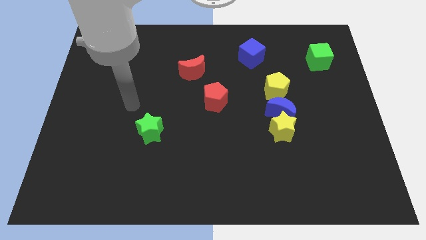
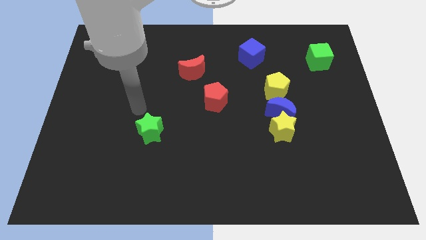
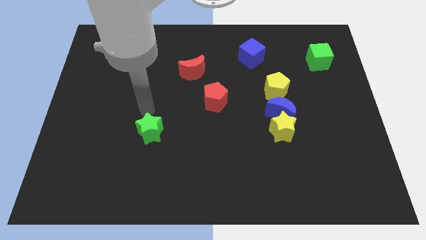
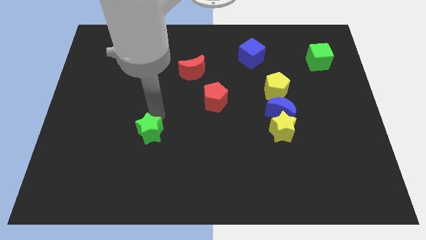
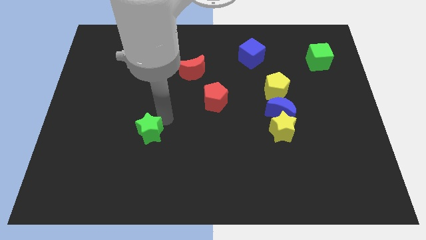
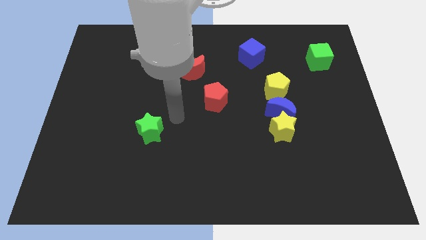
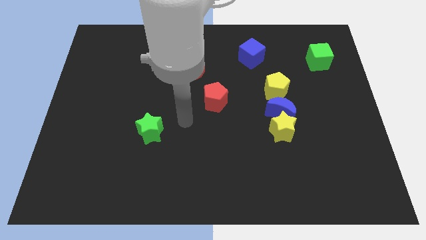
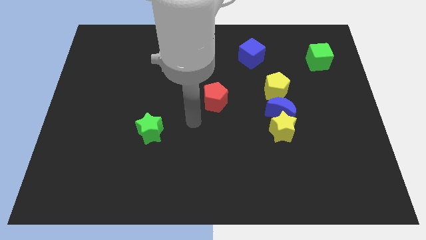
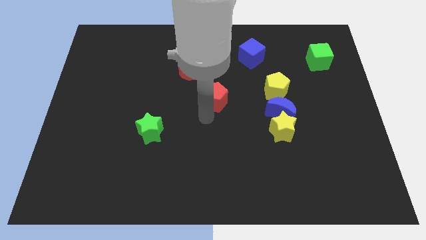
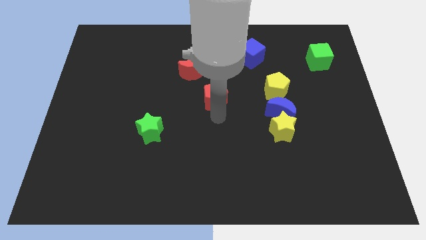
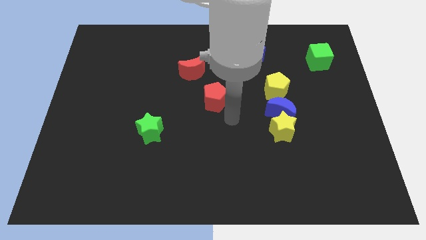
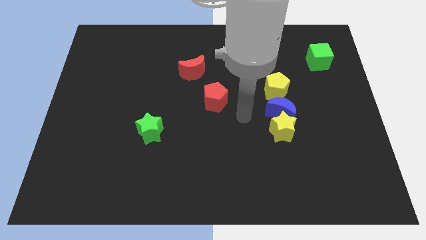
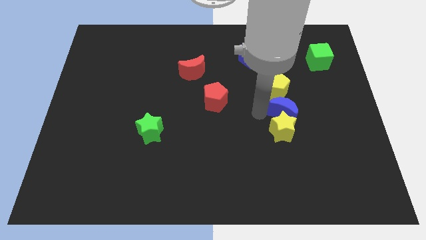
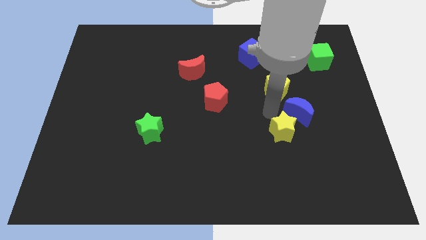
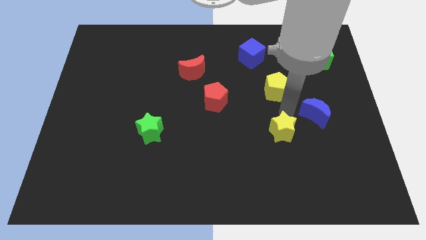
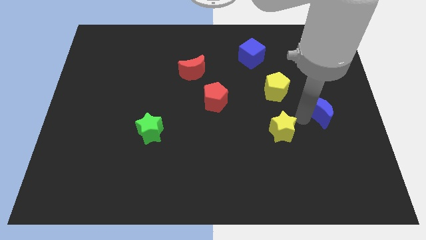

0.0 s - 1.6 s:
pull the yellow star apart from the blue moon

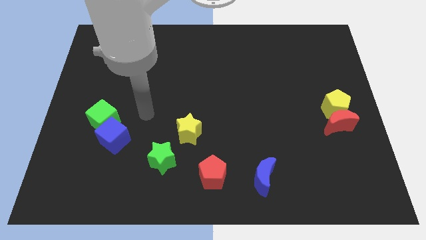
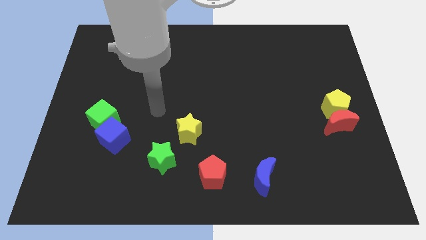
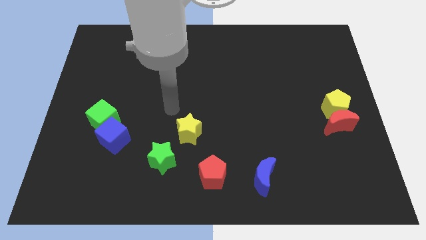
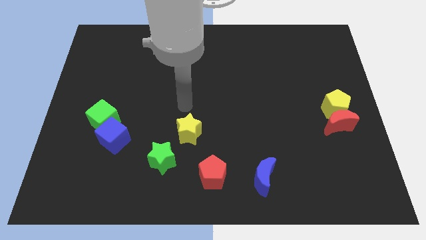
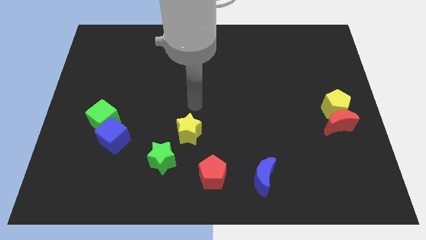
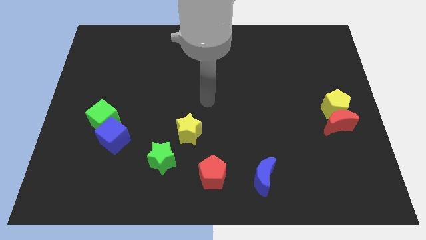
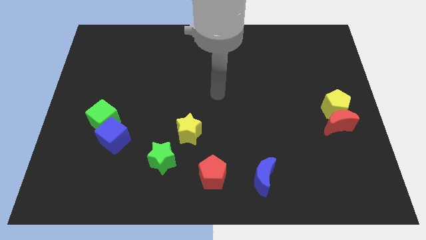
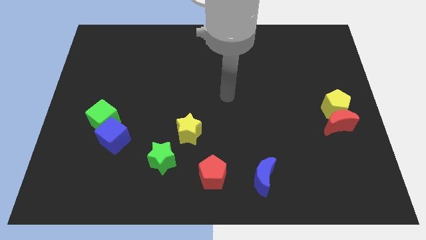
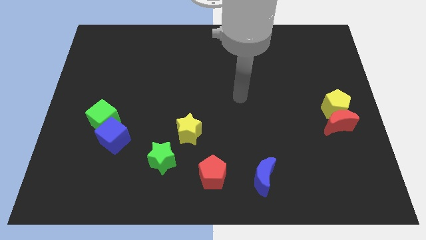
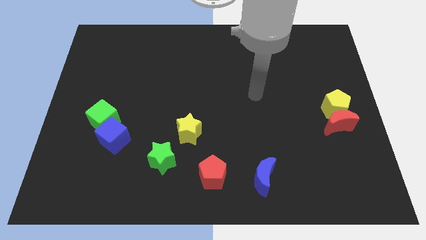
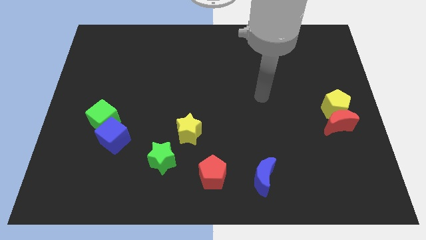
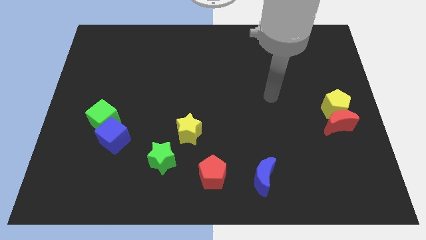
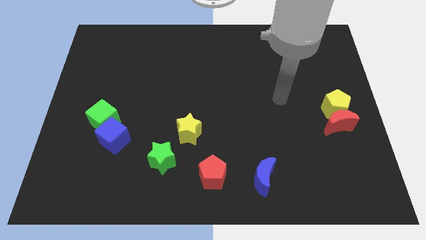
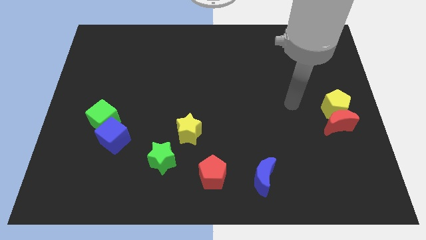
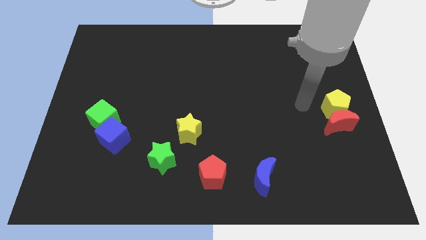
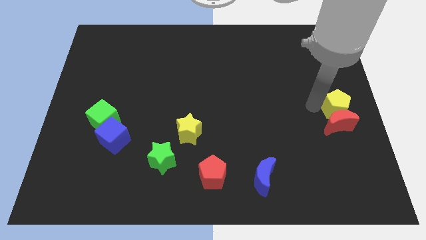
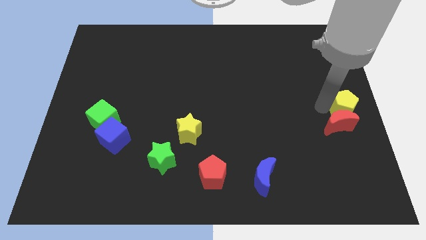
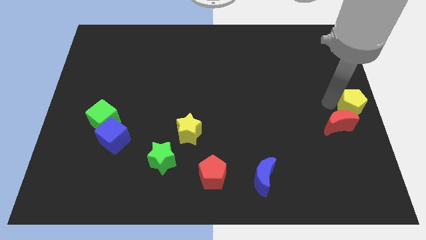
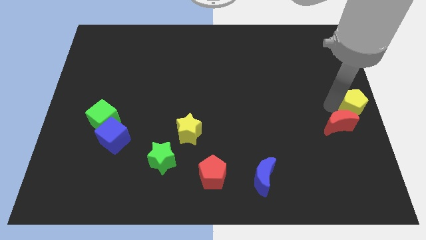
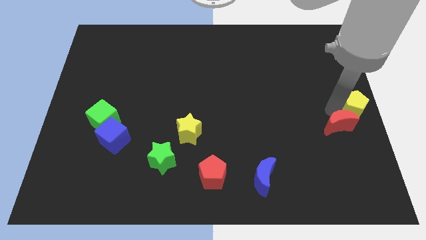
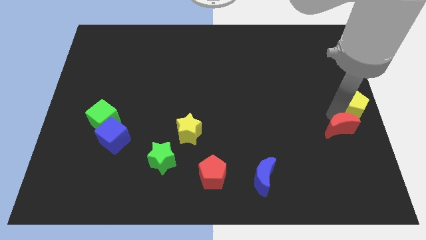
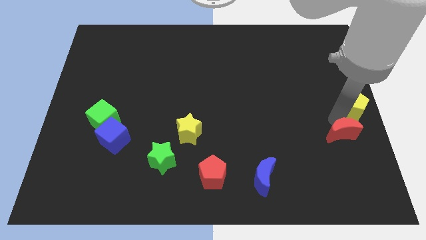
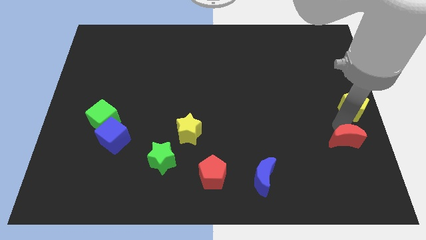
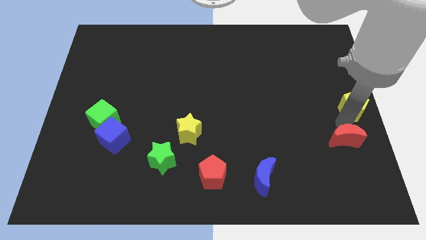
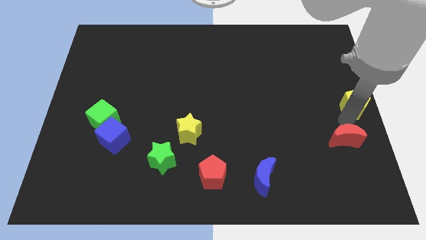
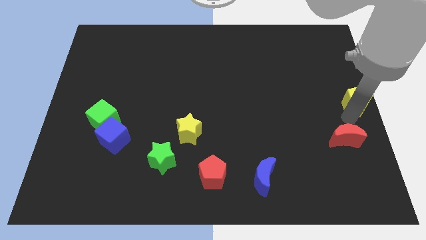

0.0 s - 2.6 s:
pull the red moon apart from the yellow pentagon

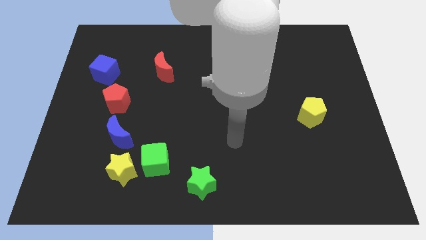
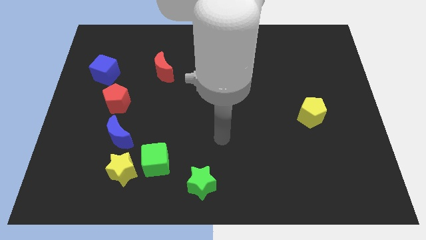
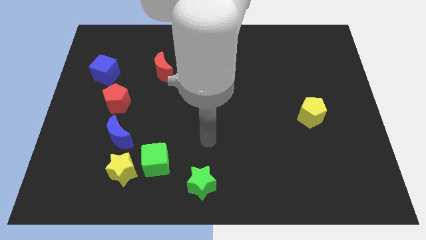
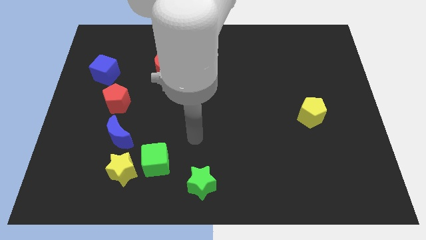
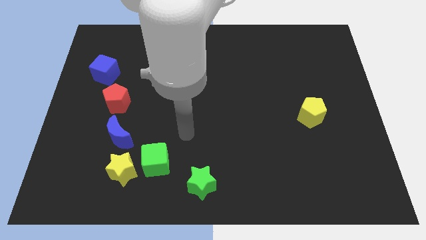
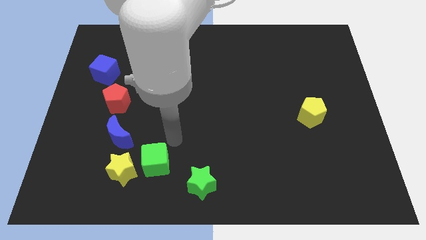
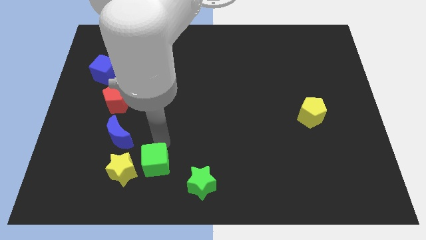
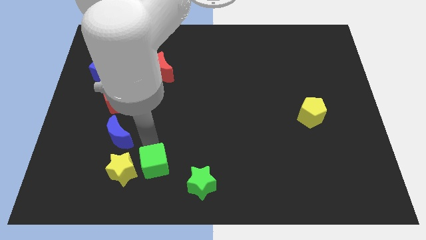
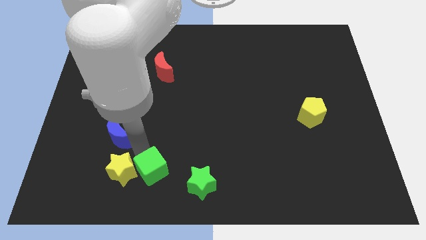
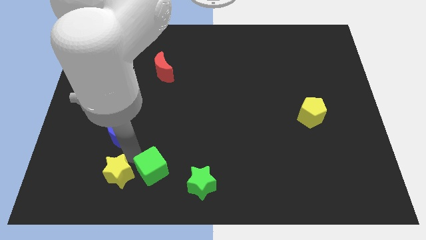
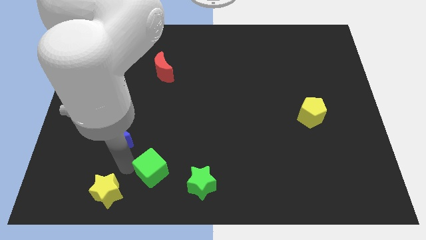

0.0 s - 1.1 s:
move the green cube away from the yellow star

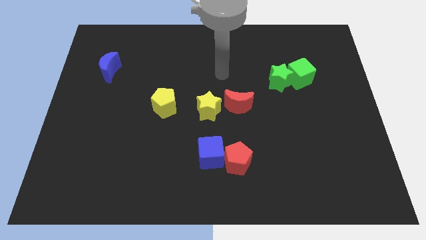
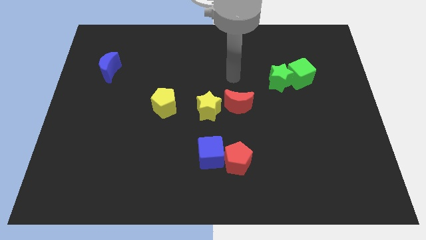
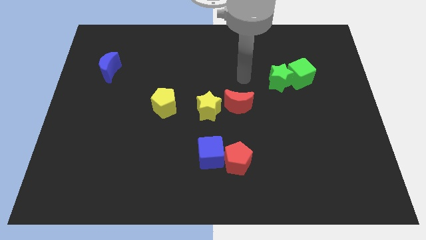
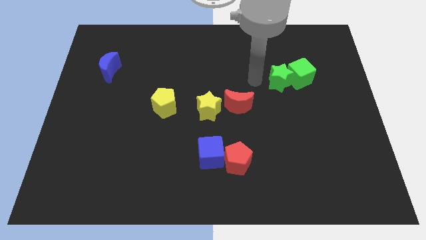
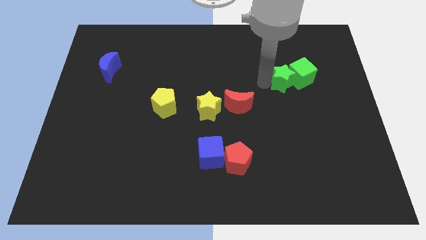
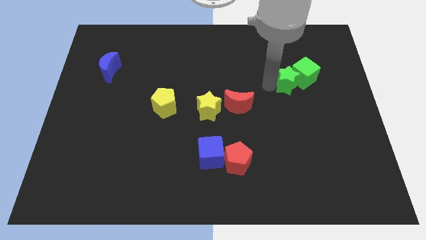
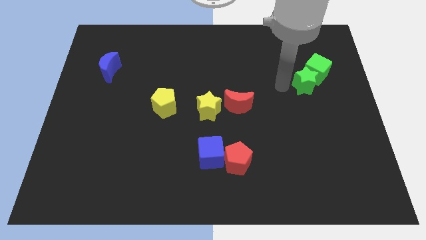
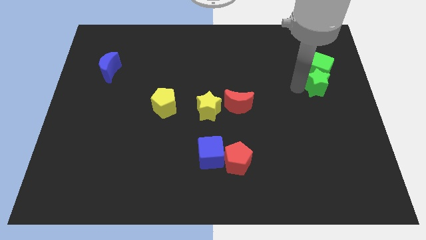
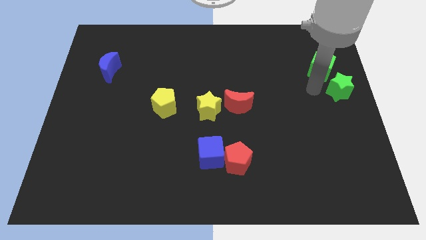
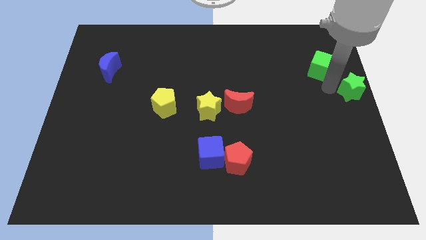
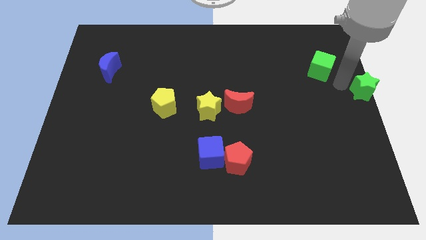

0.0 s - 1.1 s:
move the green cube away from the green star

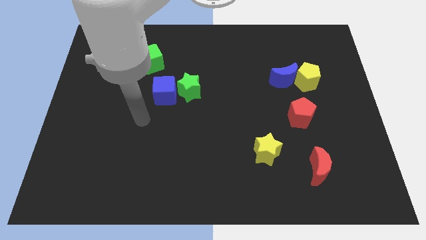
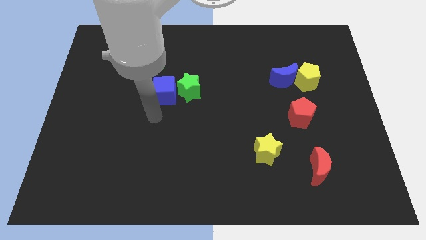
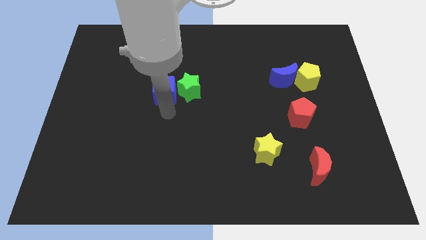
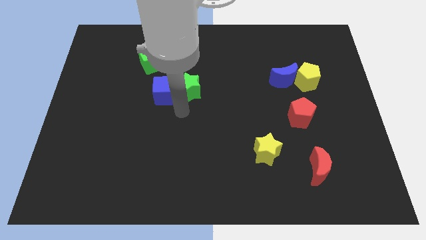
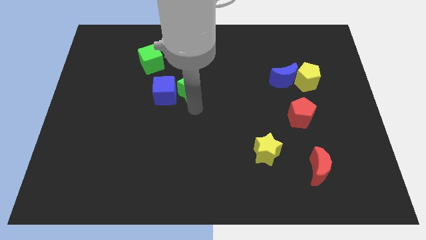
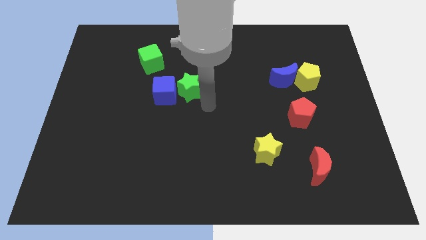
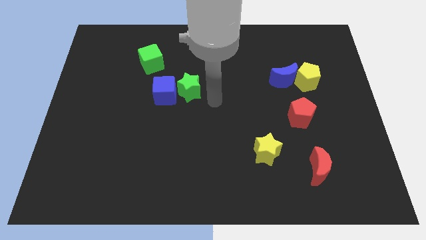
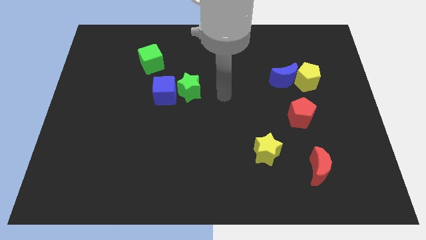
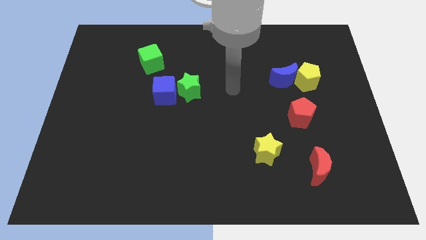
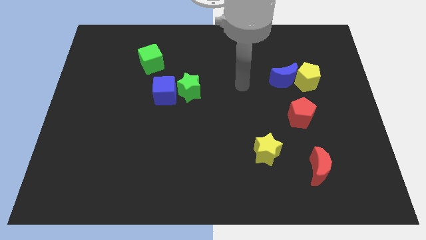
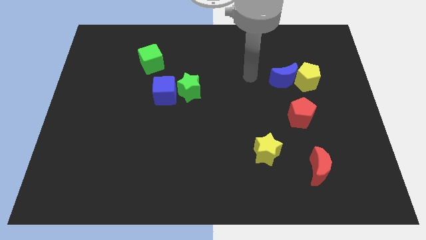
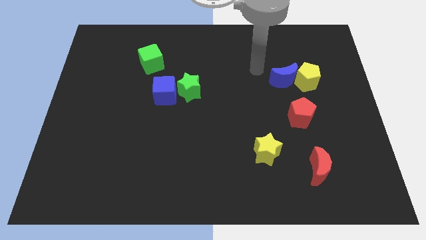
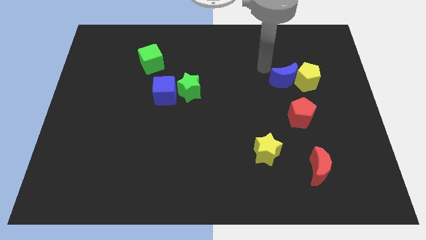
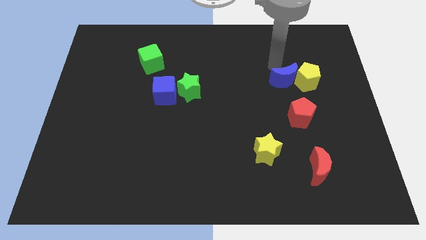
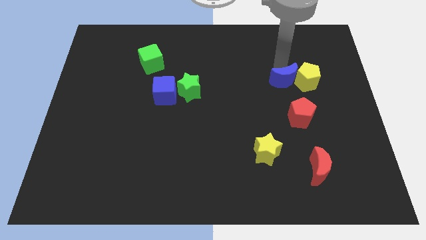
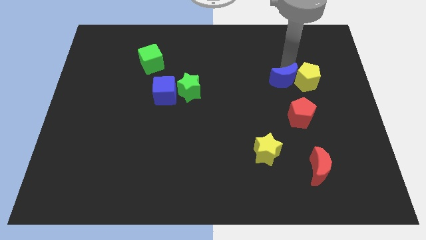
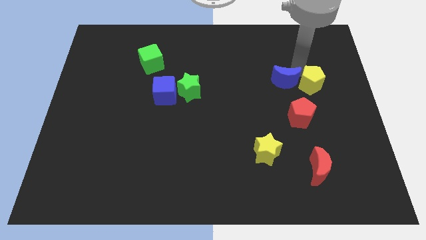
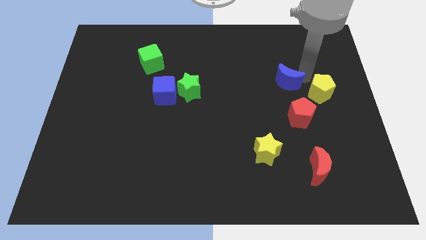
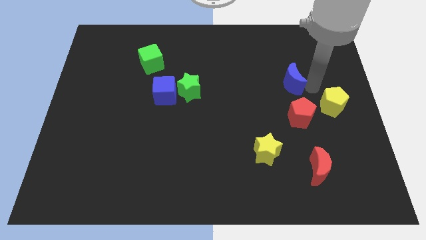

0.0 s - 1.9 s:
separate the blue moon from the yellow pentagon

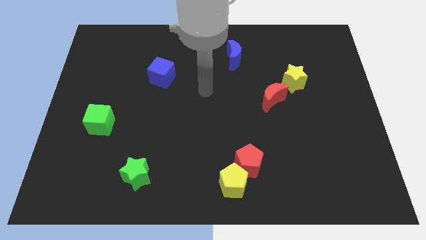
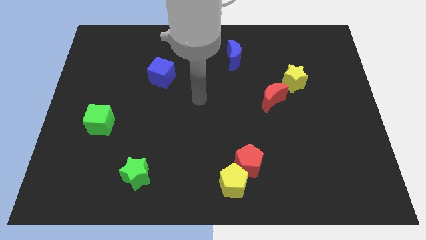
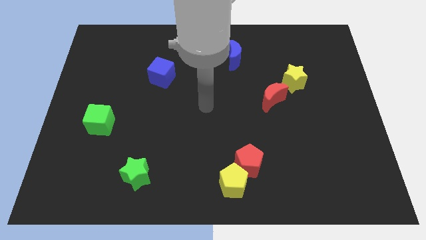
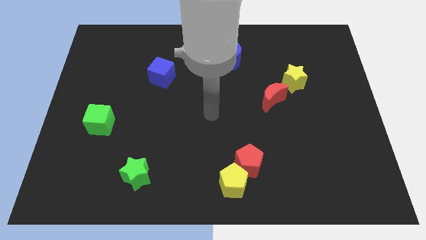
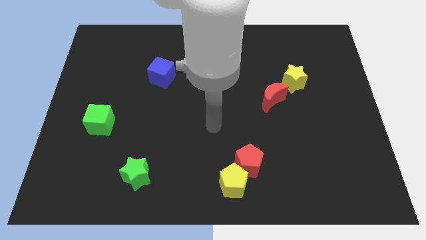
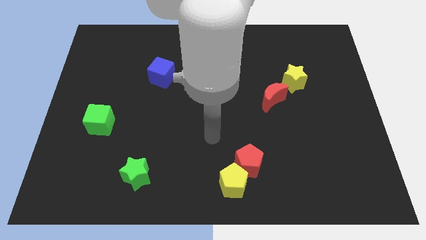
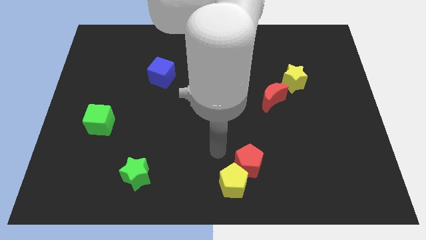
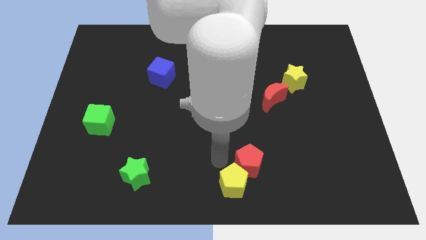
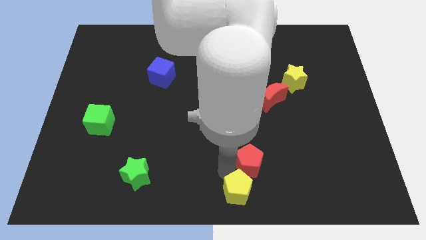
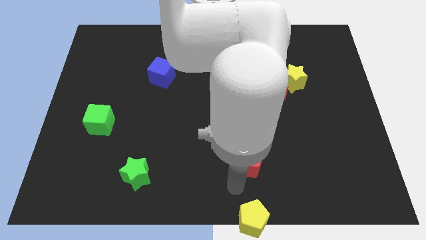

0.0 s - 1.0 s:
separate the red pentagon from the yellow pentagon
